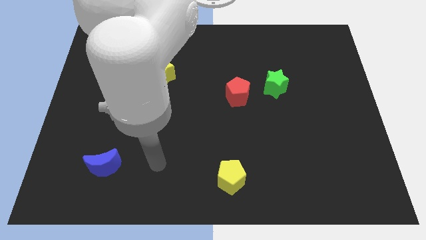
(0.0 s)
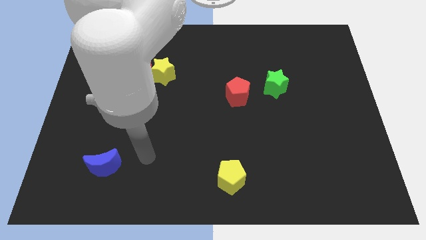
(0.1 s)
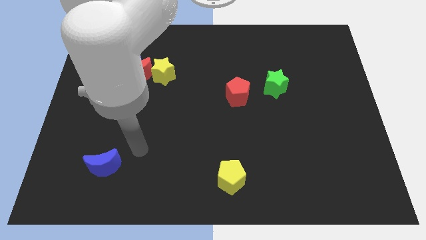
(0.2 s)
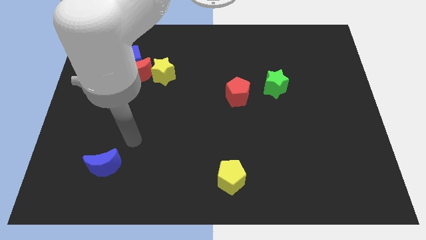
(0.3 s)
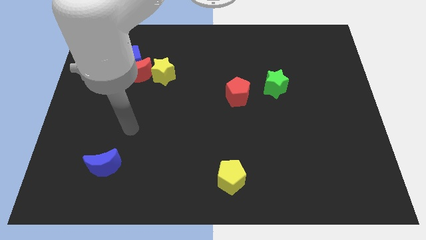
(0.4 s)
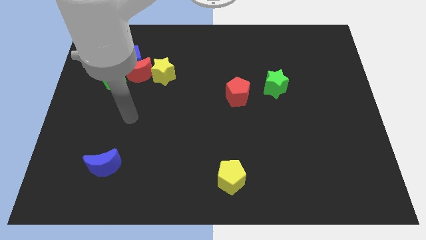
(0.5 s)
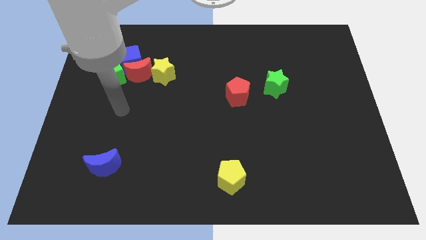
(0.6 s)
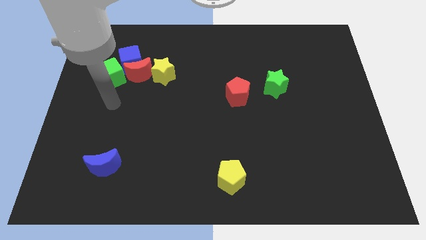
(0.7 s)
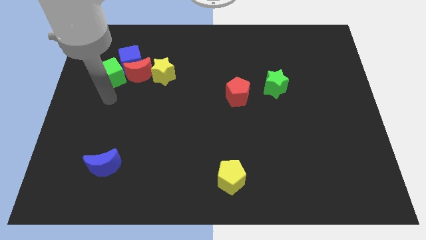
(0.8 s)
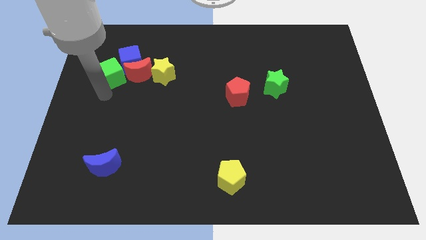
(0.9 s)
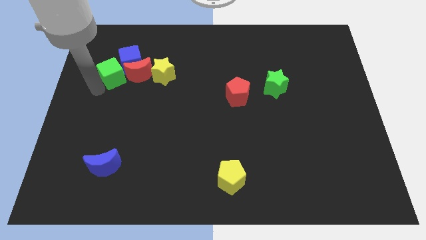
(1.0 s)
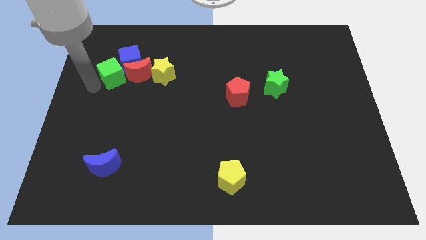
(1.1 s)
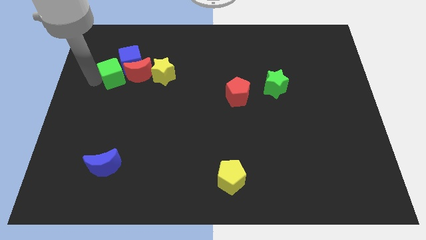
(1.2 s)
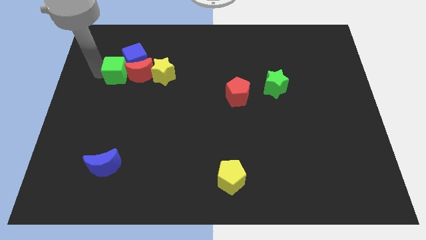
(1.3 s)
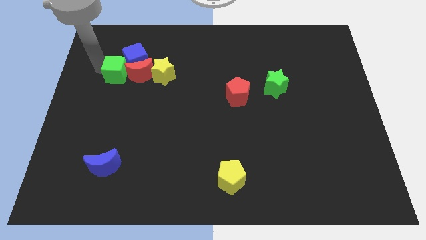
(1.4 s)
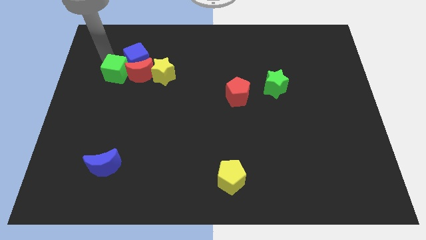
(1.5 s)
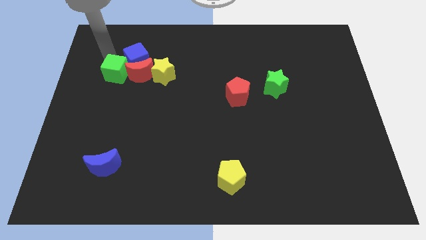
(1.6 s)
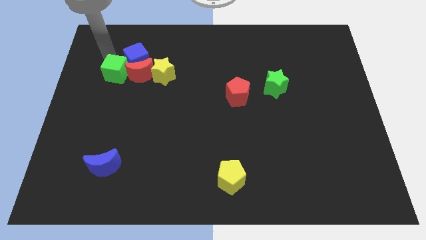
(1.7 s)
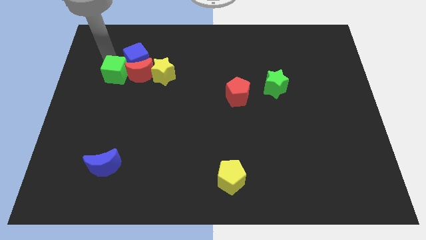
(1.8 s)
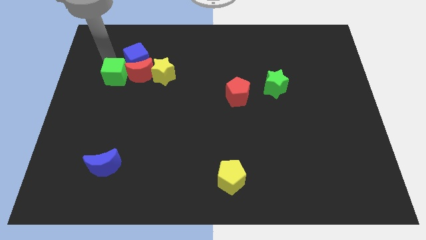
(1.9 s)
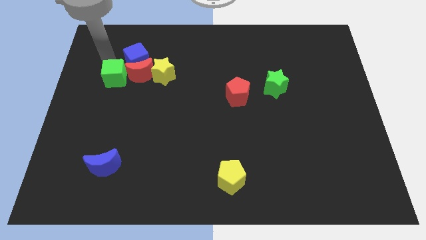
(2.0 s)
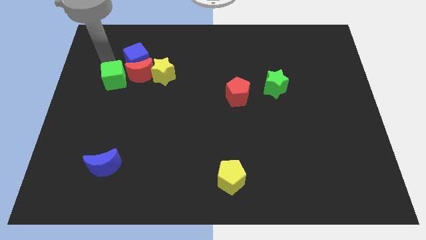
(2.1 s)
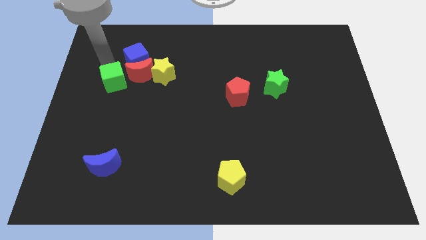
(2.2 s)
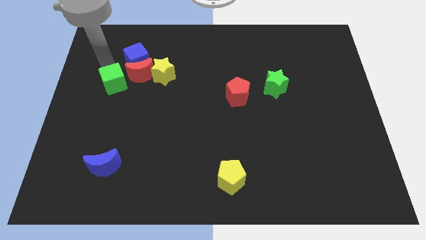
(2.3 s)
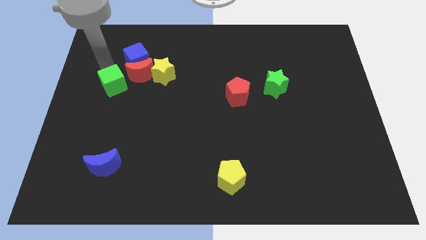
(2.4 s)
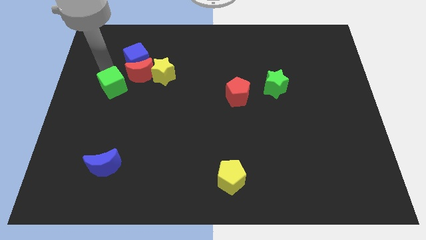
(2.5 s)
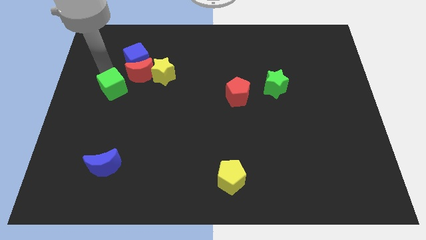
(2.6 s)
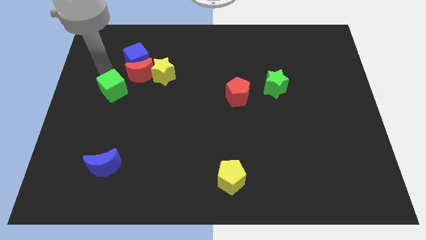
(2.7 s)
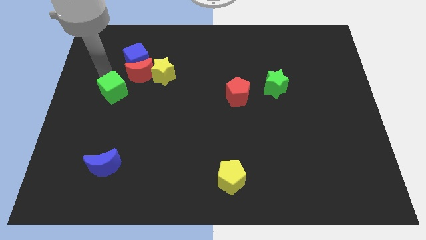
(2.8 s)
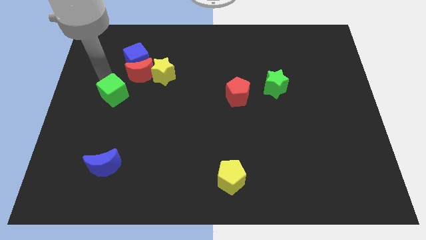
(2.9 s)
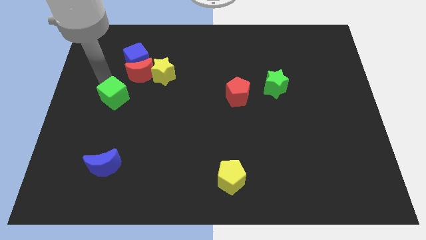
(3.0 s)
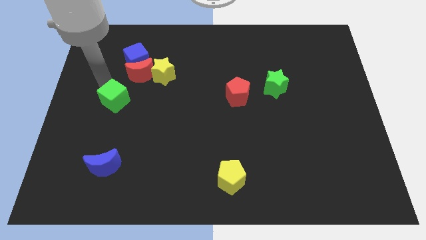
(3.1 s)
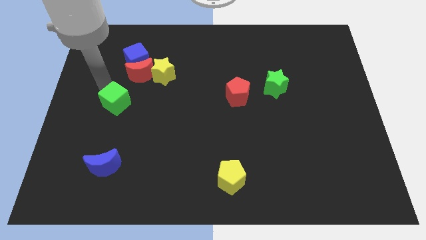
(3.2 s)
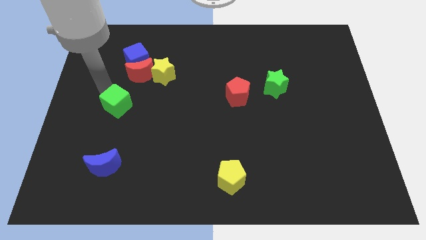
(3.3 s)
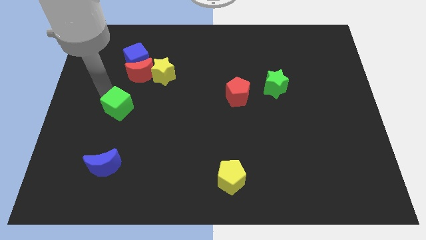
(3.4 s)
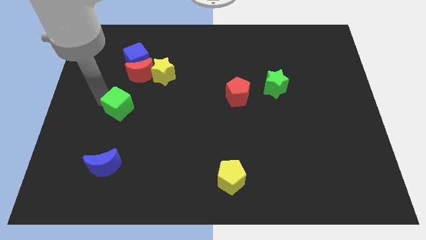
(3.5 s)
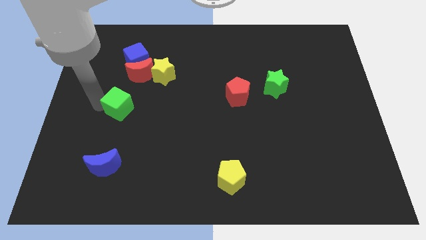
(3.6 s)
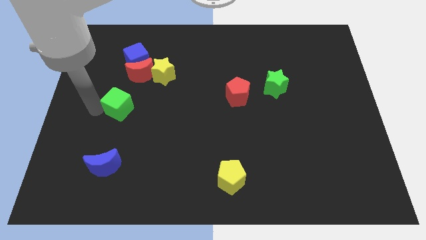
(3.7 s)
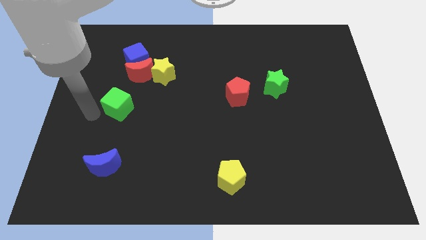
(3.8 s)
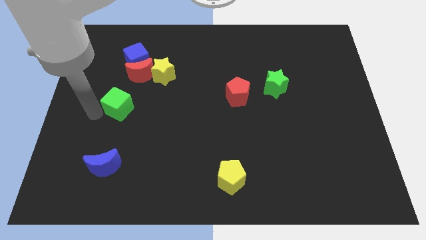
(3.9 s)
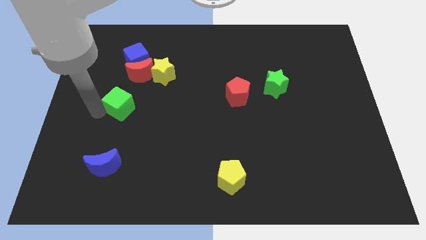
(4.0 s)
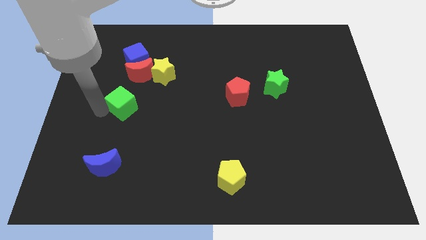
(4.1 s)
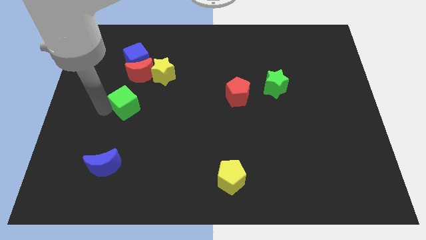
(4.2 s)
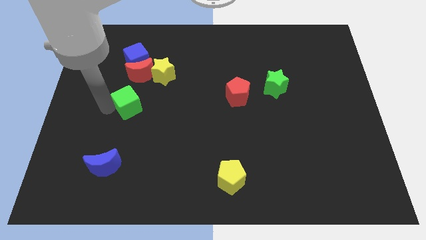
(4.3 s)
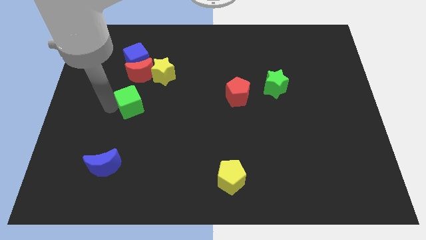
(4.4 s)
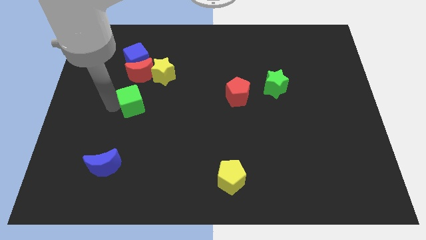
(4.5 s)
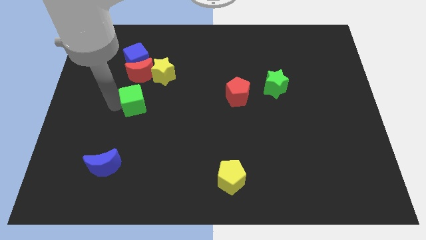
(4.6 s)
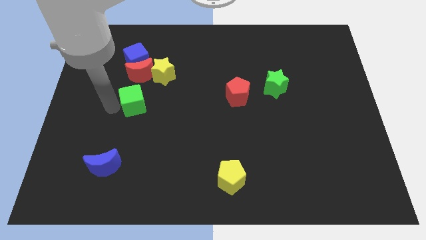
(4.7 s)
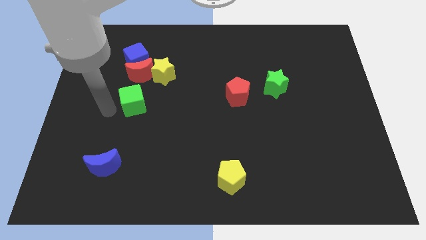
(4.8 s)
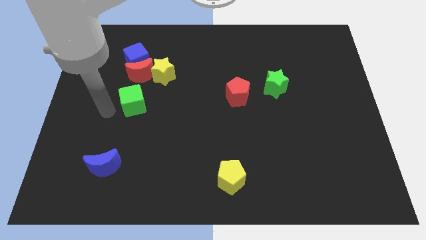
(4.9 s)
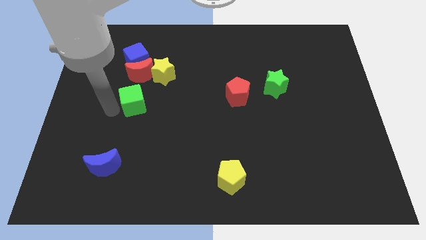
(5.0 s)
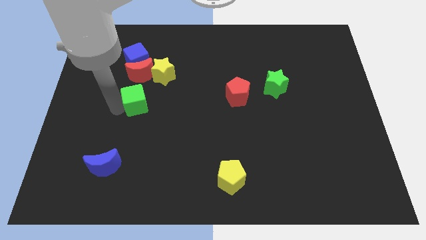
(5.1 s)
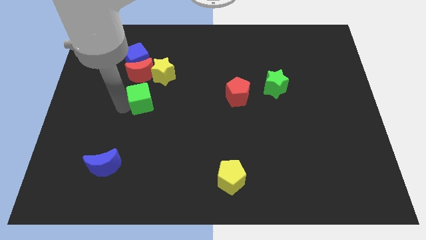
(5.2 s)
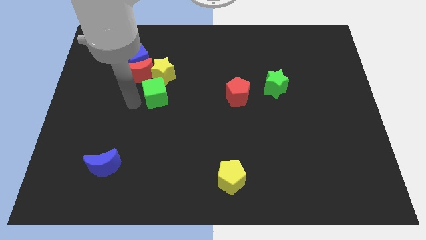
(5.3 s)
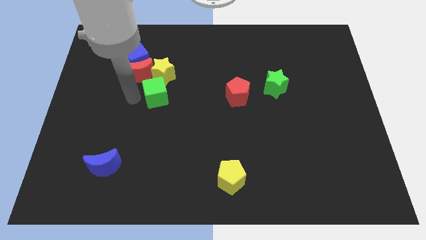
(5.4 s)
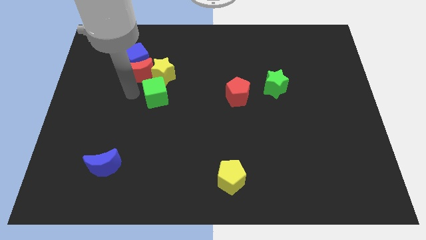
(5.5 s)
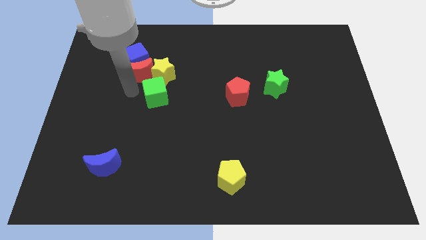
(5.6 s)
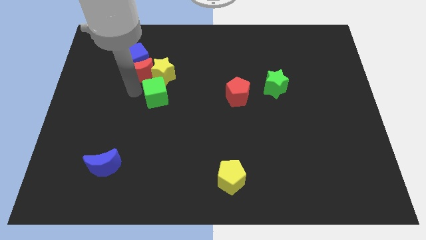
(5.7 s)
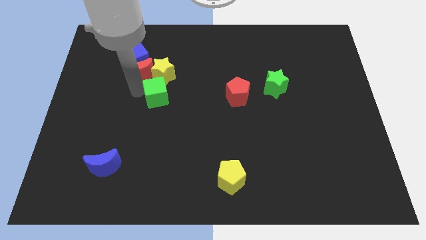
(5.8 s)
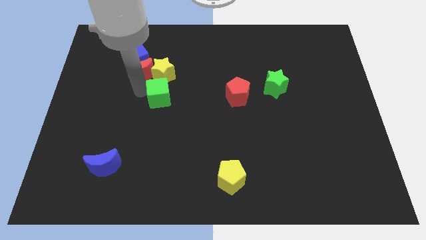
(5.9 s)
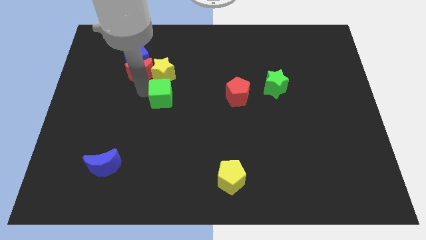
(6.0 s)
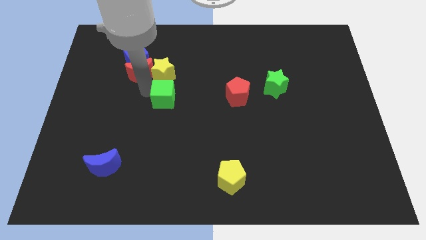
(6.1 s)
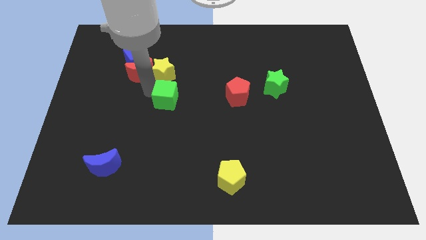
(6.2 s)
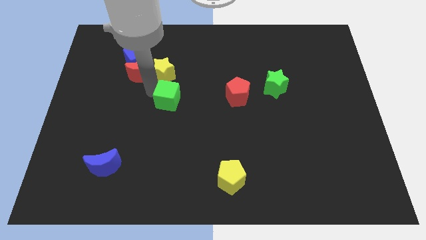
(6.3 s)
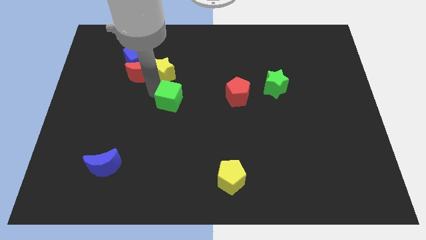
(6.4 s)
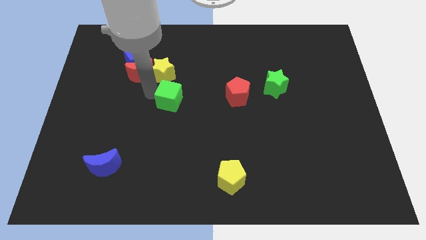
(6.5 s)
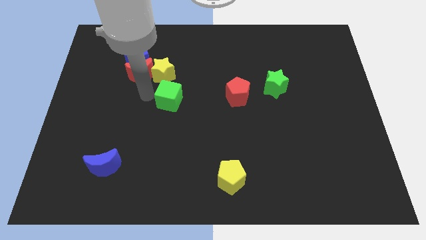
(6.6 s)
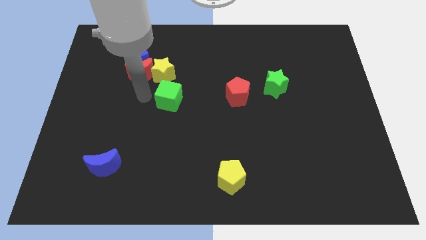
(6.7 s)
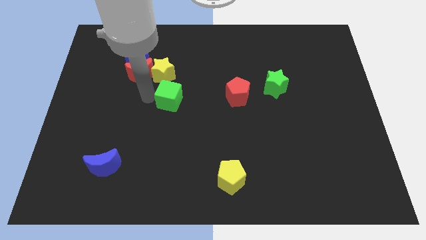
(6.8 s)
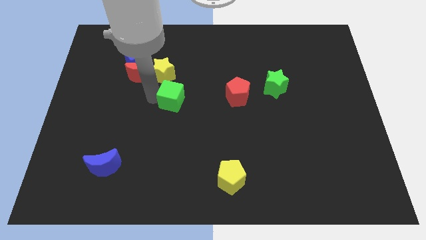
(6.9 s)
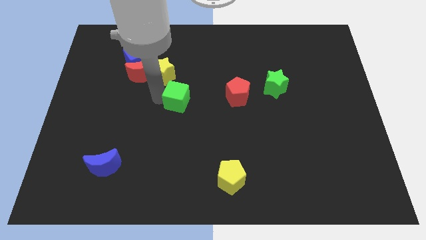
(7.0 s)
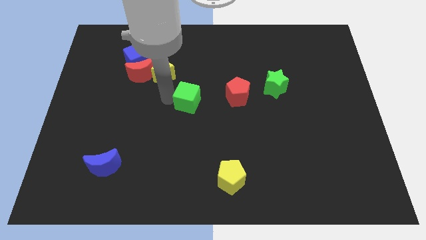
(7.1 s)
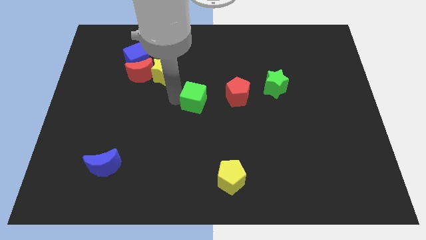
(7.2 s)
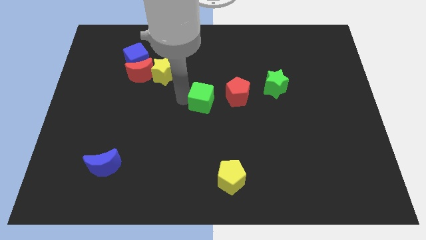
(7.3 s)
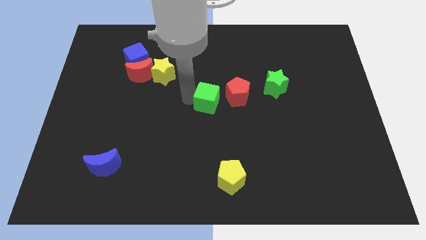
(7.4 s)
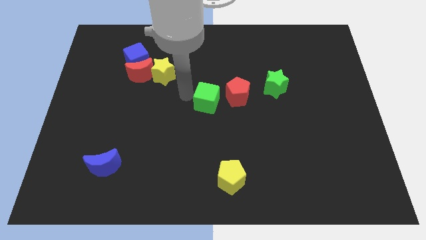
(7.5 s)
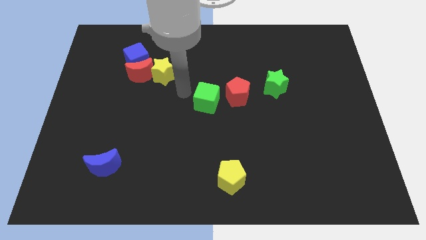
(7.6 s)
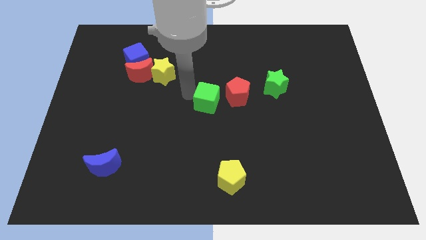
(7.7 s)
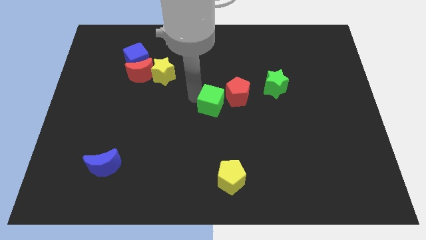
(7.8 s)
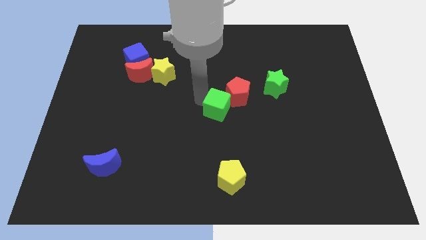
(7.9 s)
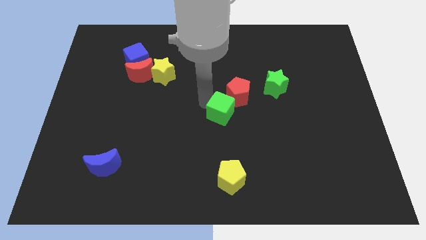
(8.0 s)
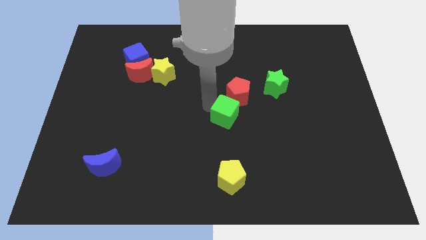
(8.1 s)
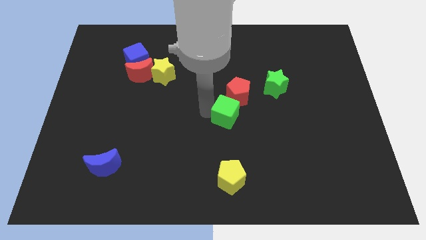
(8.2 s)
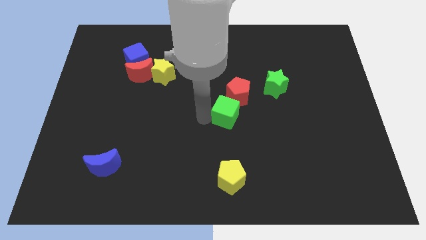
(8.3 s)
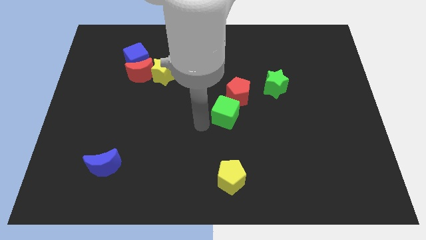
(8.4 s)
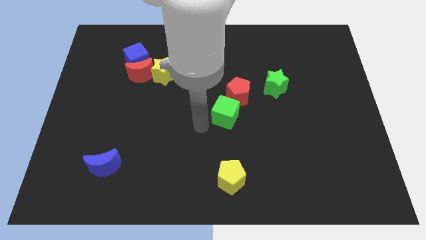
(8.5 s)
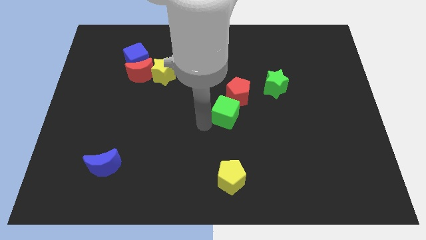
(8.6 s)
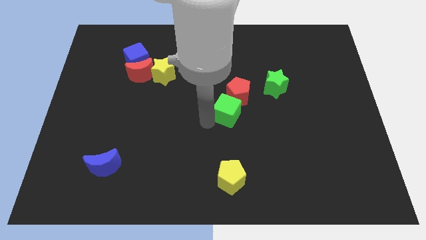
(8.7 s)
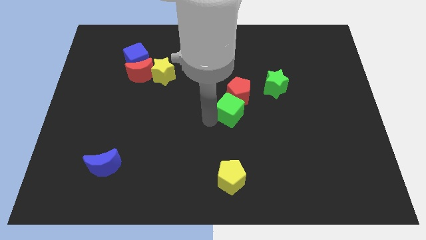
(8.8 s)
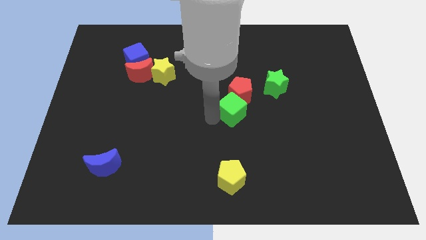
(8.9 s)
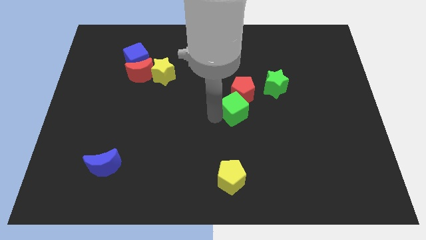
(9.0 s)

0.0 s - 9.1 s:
slide the green cube to the bottom left side of the green star
